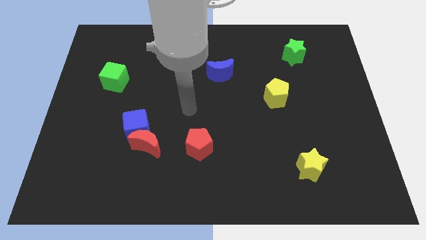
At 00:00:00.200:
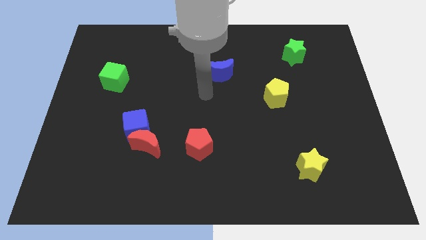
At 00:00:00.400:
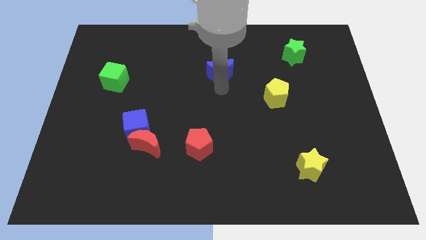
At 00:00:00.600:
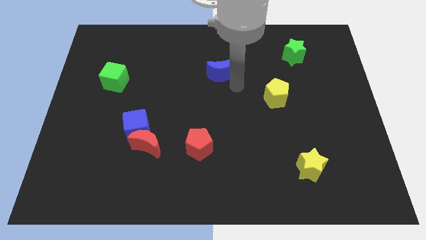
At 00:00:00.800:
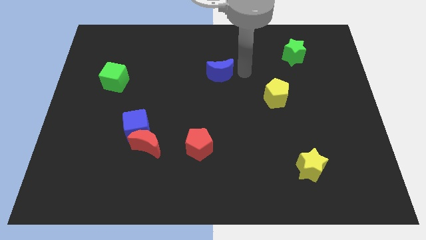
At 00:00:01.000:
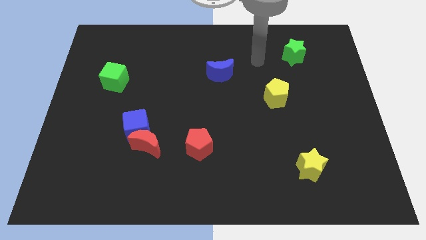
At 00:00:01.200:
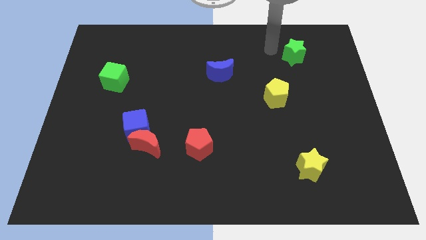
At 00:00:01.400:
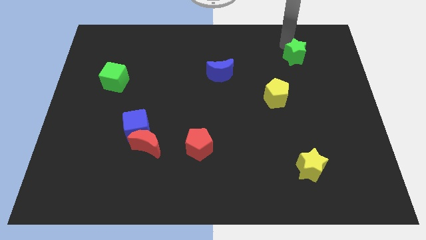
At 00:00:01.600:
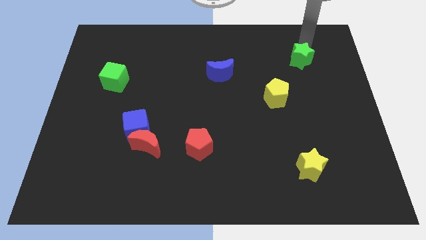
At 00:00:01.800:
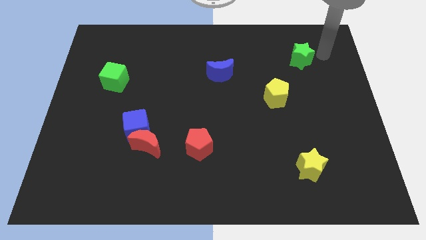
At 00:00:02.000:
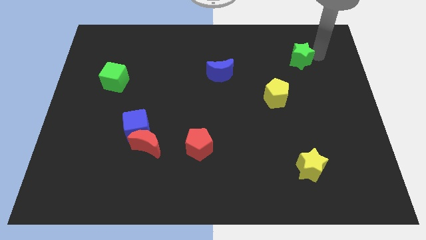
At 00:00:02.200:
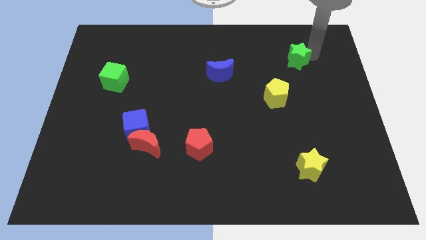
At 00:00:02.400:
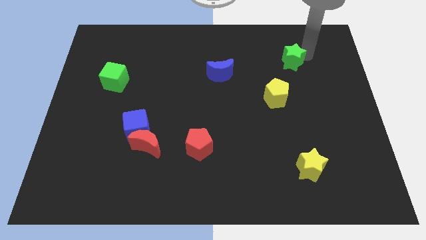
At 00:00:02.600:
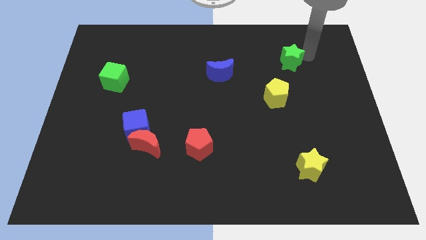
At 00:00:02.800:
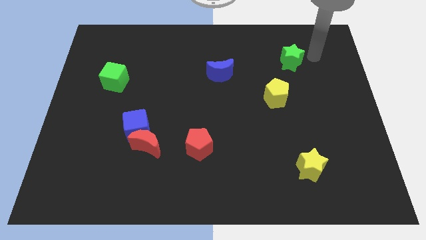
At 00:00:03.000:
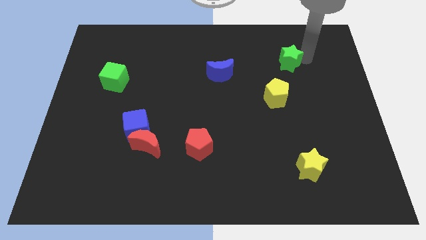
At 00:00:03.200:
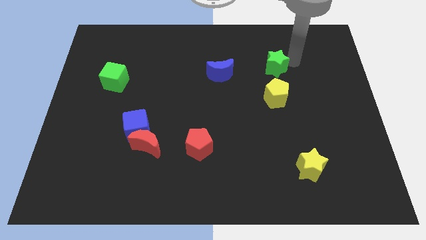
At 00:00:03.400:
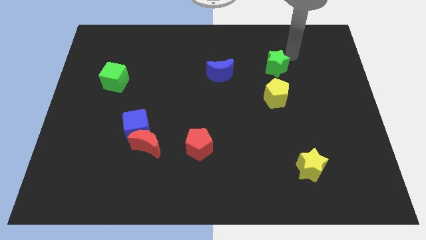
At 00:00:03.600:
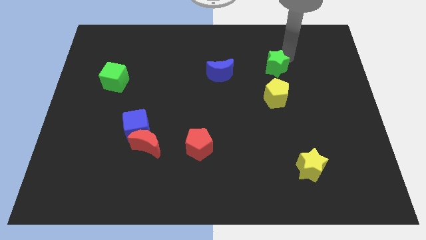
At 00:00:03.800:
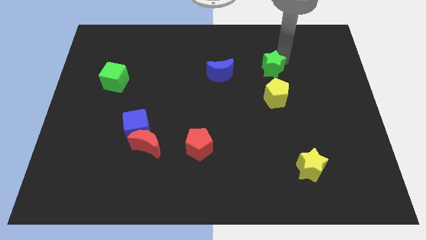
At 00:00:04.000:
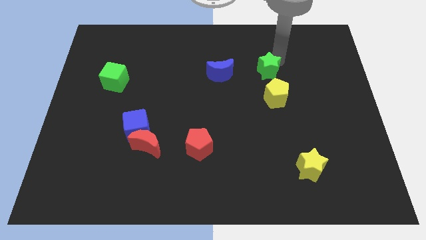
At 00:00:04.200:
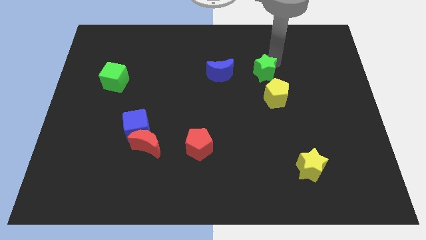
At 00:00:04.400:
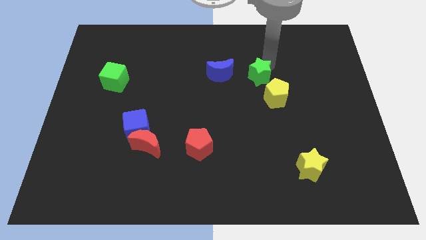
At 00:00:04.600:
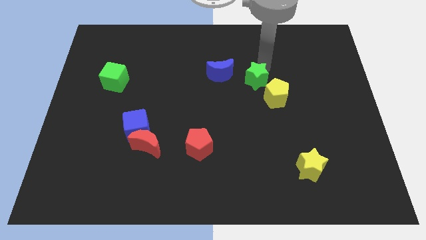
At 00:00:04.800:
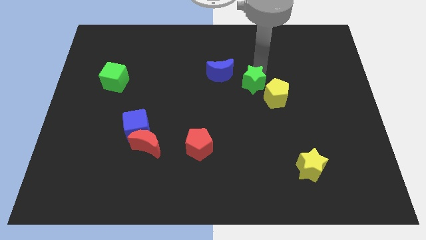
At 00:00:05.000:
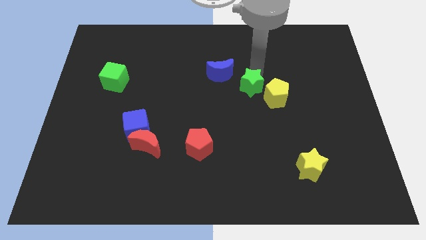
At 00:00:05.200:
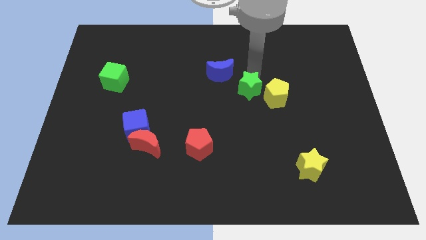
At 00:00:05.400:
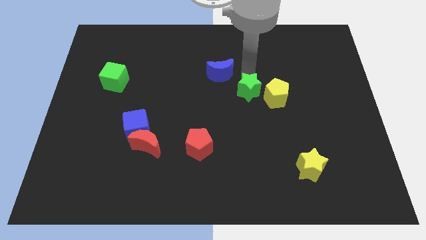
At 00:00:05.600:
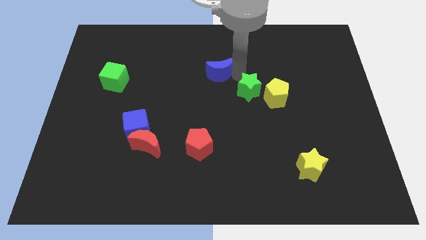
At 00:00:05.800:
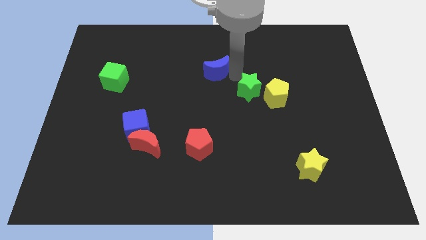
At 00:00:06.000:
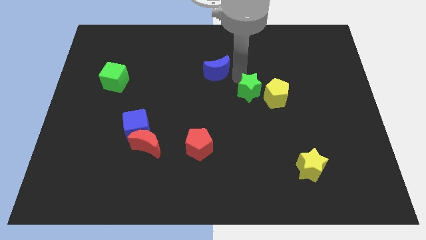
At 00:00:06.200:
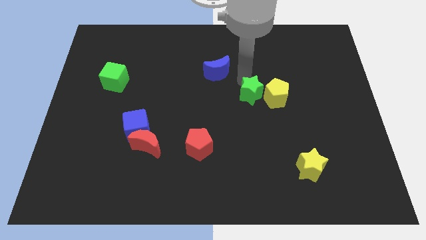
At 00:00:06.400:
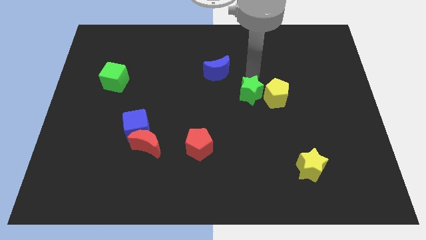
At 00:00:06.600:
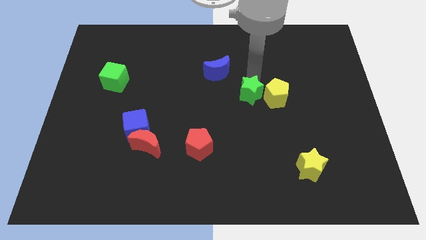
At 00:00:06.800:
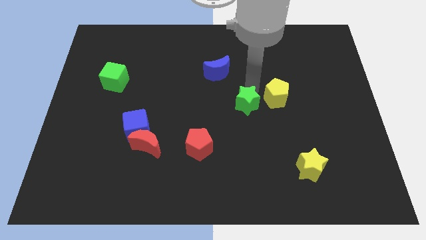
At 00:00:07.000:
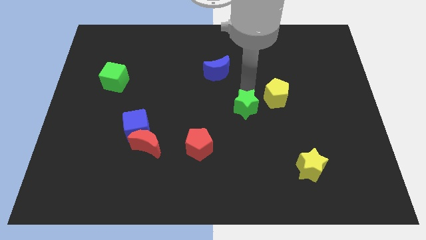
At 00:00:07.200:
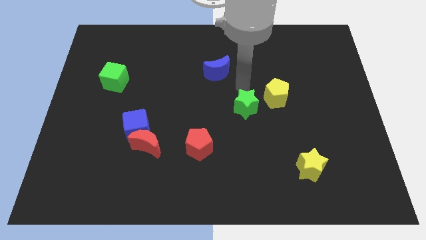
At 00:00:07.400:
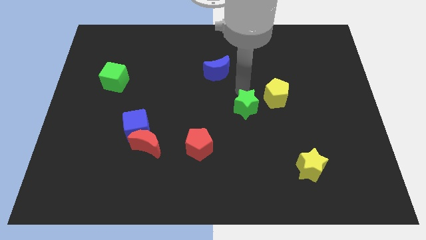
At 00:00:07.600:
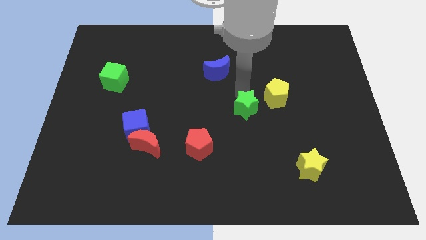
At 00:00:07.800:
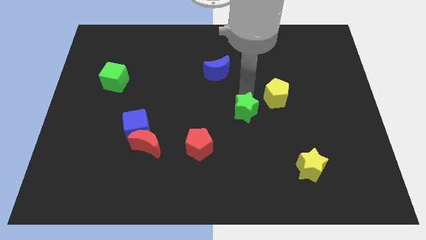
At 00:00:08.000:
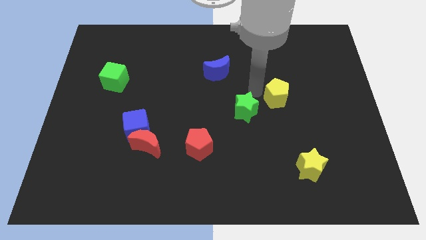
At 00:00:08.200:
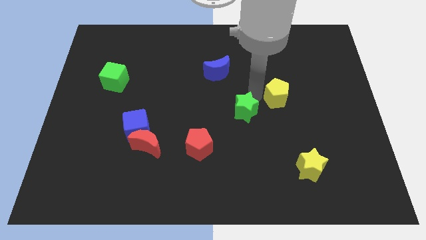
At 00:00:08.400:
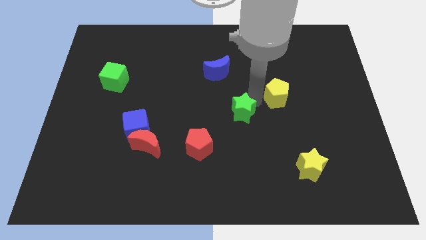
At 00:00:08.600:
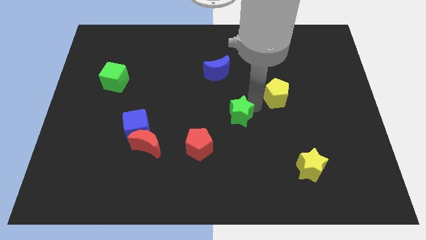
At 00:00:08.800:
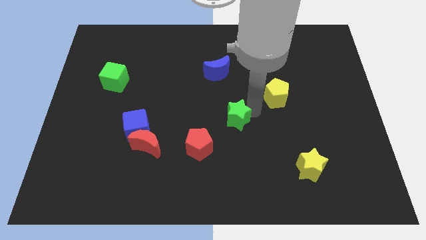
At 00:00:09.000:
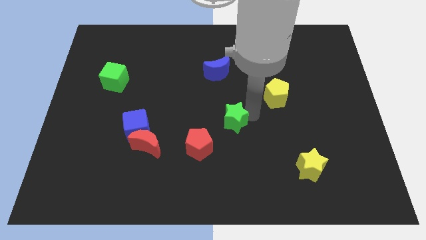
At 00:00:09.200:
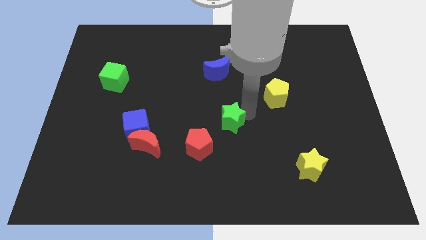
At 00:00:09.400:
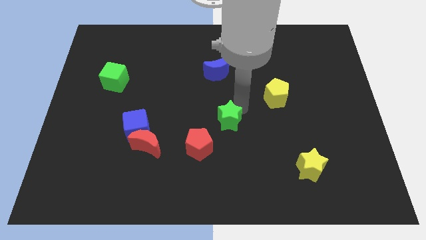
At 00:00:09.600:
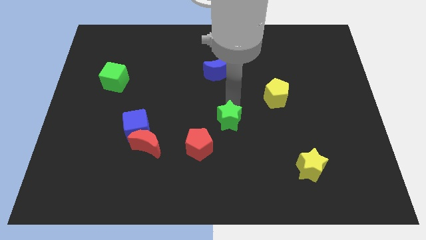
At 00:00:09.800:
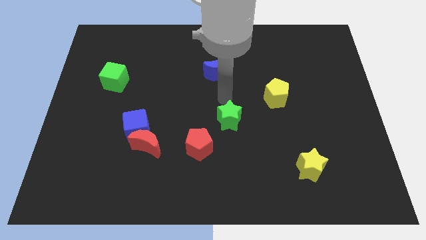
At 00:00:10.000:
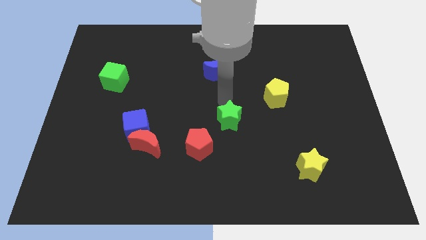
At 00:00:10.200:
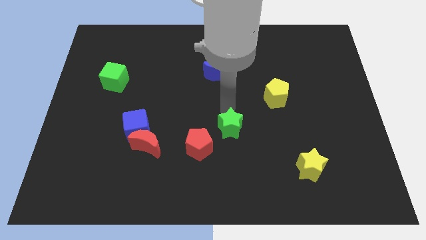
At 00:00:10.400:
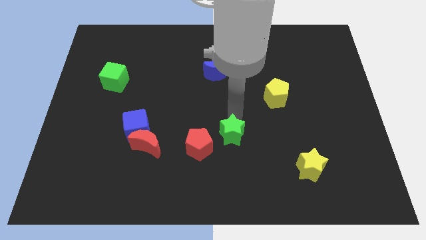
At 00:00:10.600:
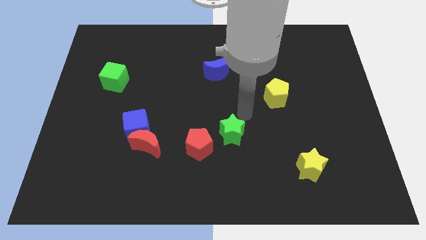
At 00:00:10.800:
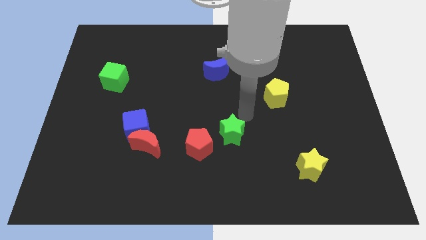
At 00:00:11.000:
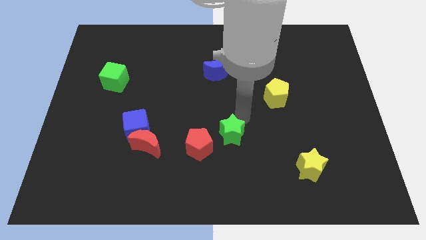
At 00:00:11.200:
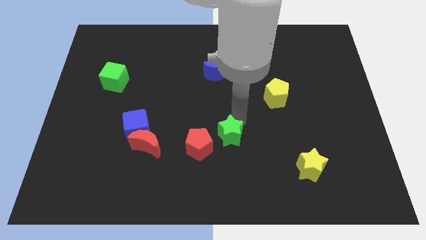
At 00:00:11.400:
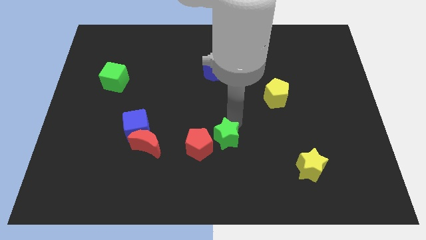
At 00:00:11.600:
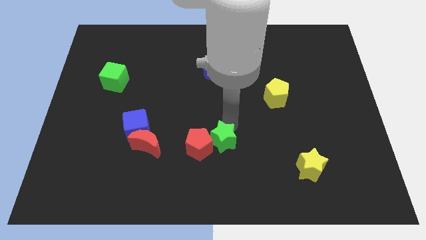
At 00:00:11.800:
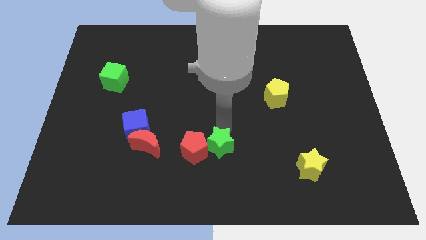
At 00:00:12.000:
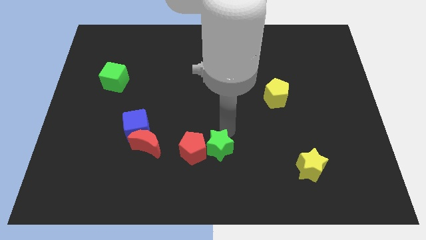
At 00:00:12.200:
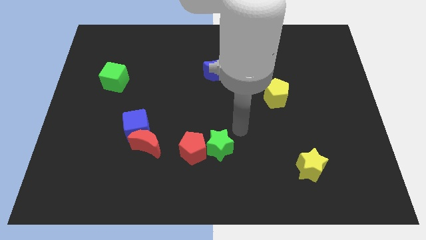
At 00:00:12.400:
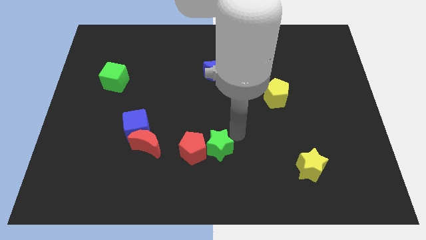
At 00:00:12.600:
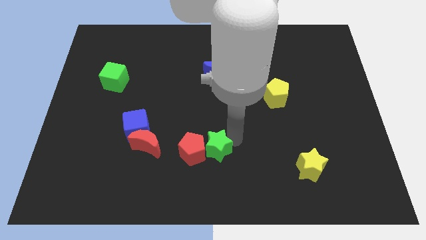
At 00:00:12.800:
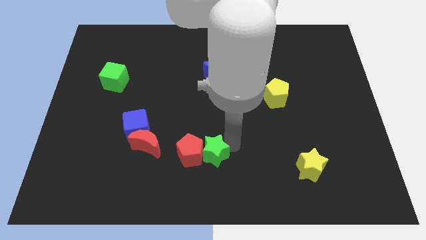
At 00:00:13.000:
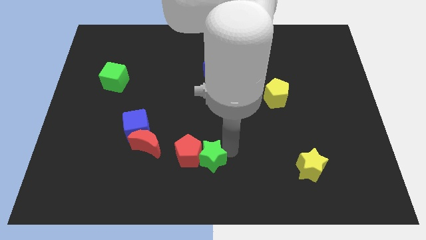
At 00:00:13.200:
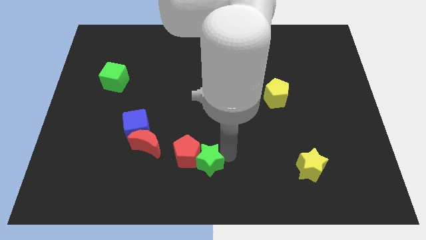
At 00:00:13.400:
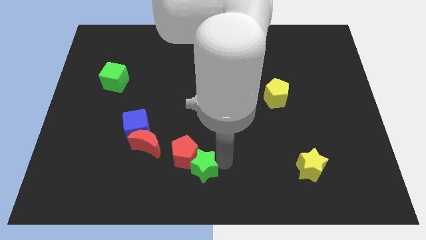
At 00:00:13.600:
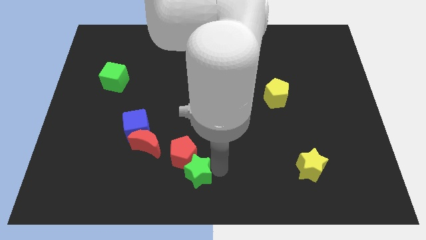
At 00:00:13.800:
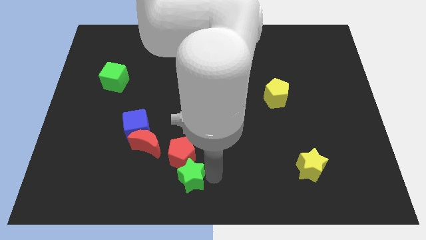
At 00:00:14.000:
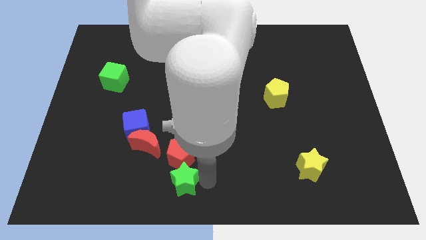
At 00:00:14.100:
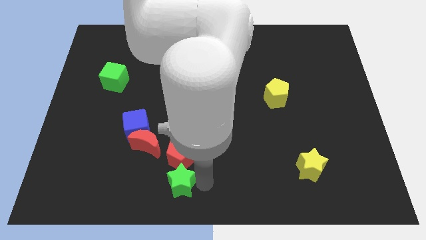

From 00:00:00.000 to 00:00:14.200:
push the green star to the bottom left side of the red pentagon
